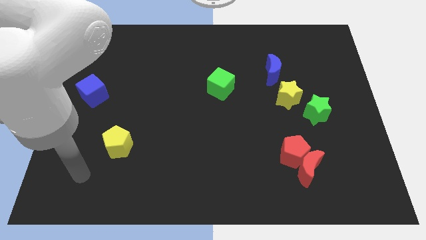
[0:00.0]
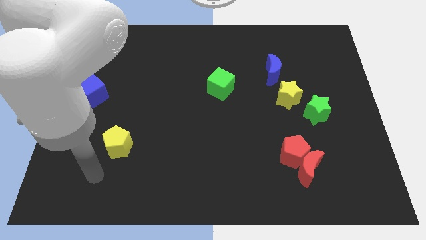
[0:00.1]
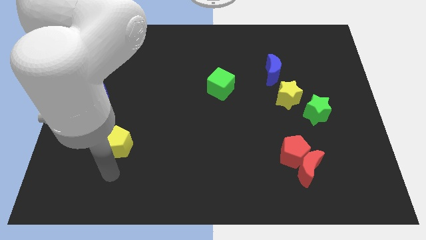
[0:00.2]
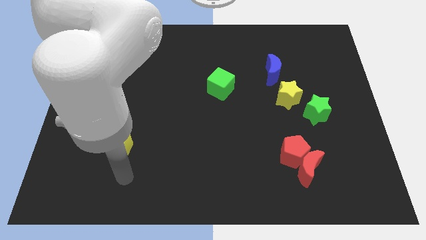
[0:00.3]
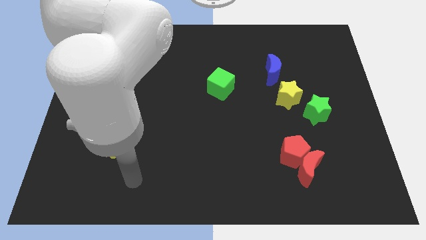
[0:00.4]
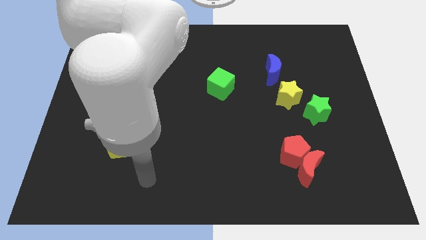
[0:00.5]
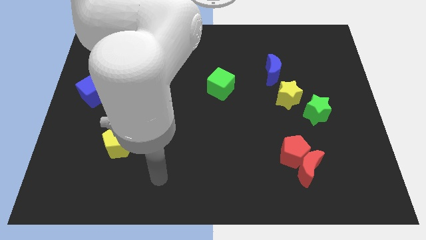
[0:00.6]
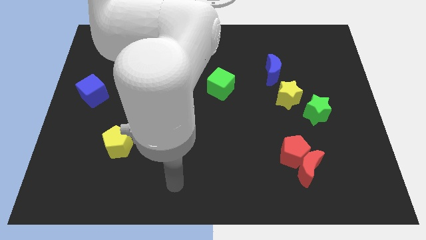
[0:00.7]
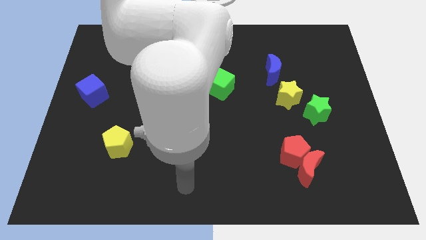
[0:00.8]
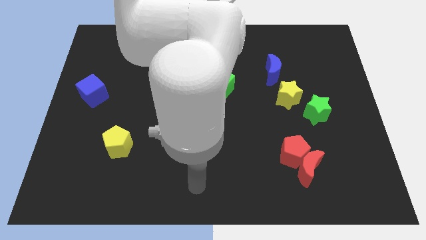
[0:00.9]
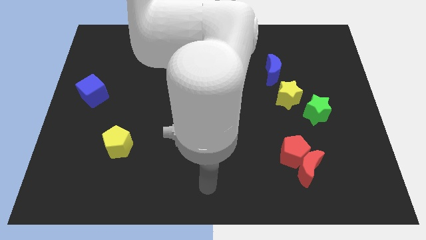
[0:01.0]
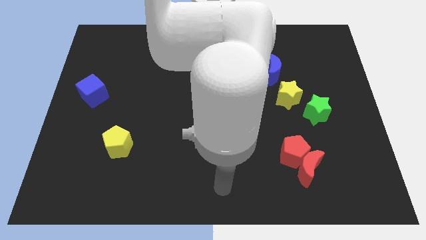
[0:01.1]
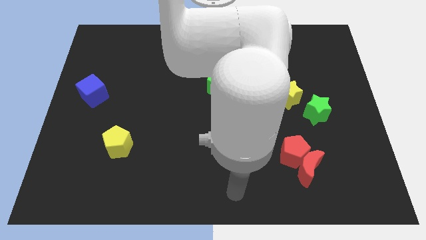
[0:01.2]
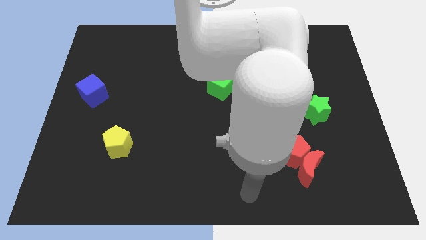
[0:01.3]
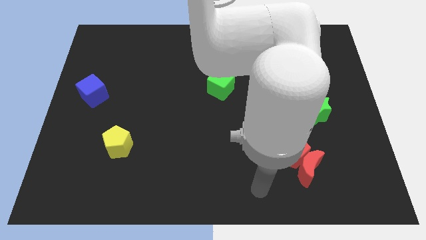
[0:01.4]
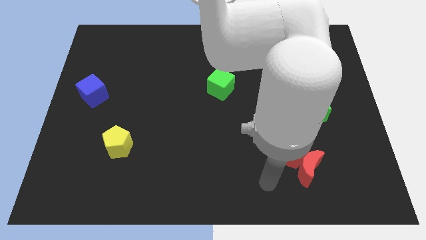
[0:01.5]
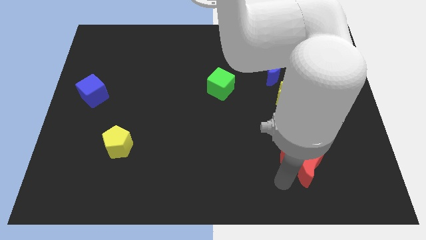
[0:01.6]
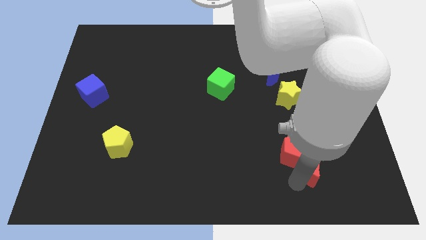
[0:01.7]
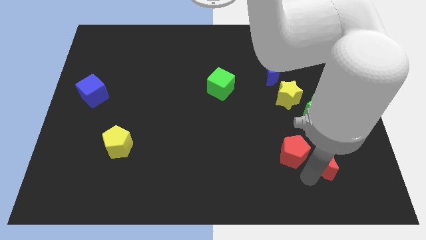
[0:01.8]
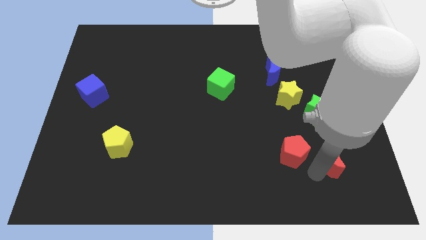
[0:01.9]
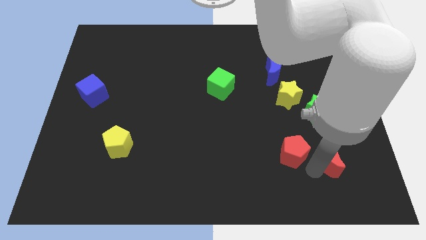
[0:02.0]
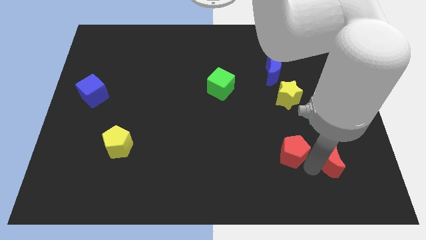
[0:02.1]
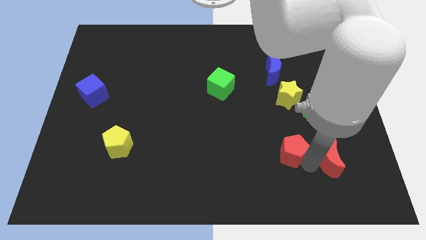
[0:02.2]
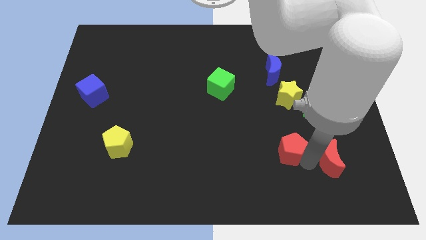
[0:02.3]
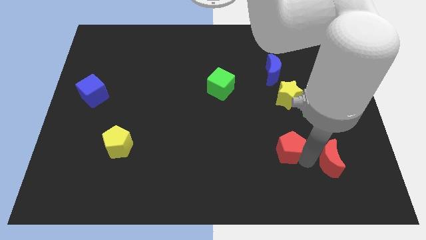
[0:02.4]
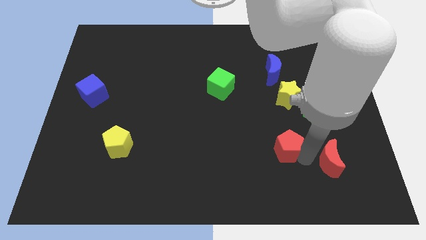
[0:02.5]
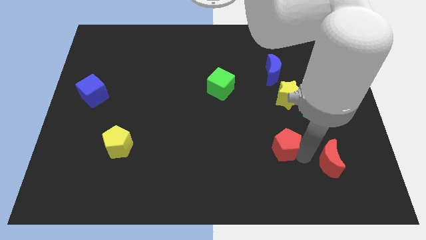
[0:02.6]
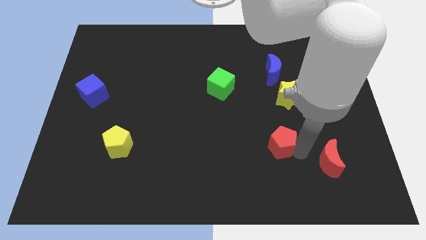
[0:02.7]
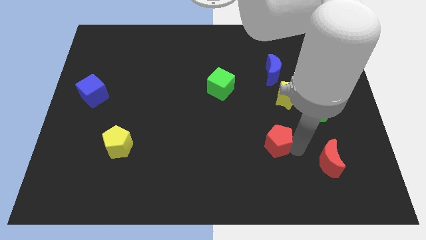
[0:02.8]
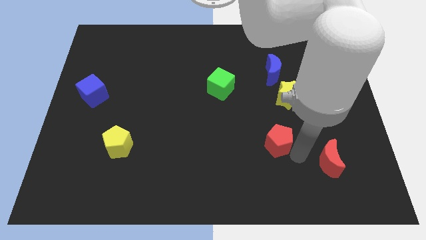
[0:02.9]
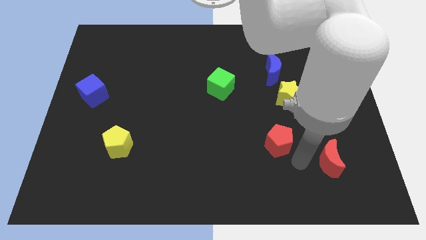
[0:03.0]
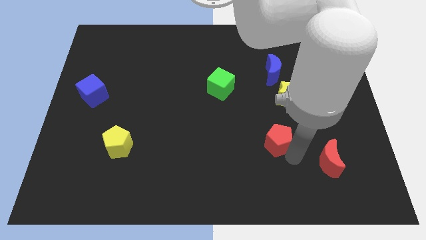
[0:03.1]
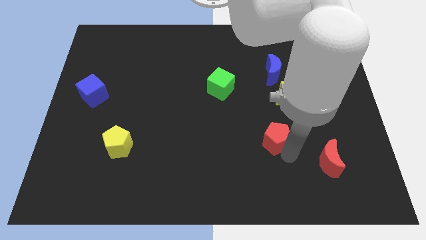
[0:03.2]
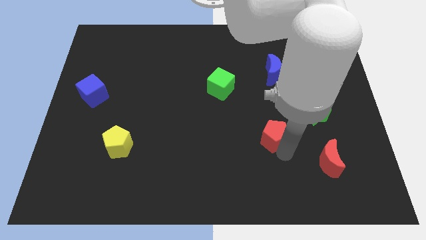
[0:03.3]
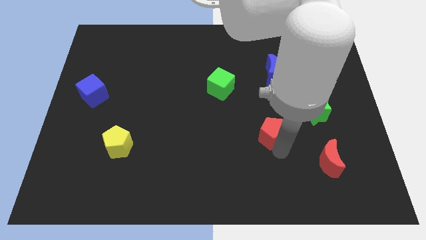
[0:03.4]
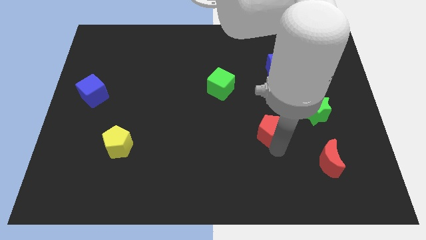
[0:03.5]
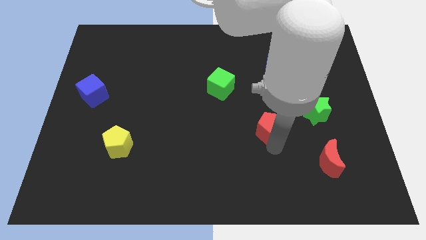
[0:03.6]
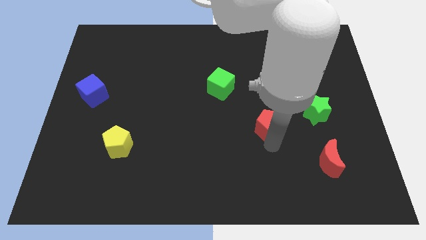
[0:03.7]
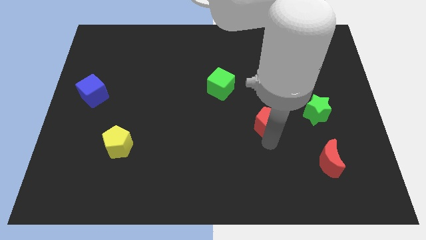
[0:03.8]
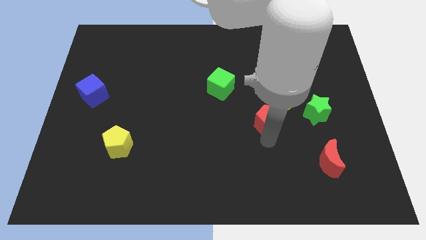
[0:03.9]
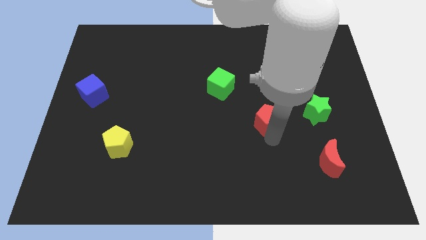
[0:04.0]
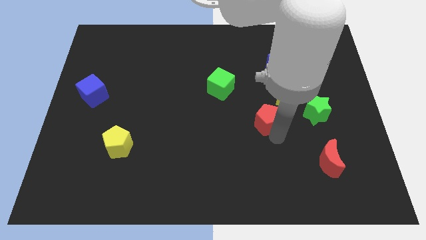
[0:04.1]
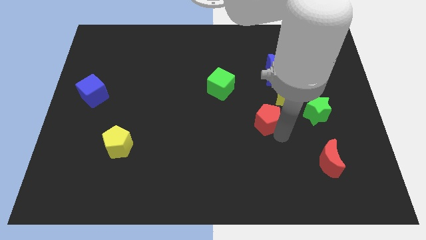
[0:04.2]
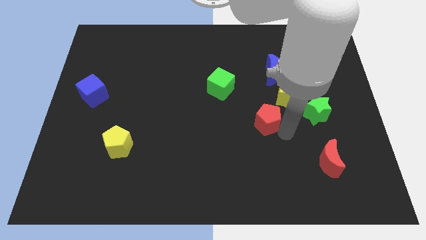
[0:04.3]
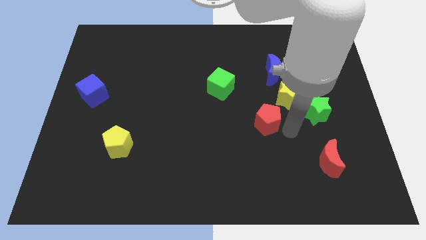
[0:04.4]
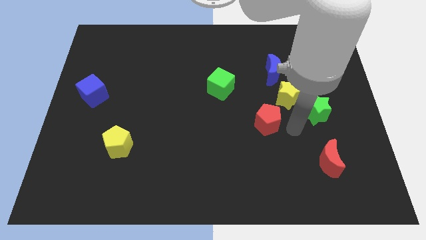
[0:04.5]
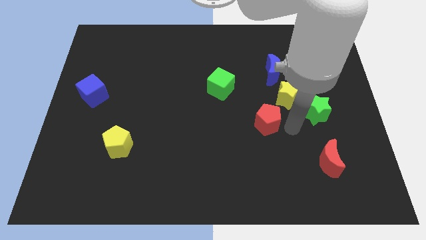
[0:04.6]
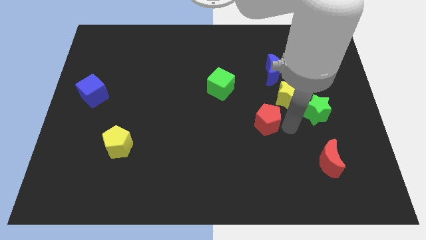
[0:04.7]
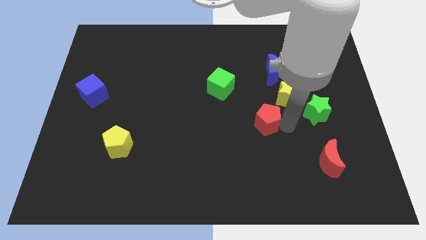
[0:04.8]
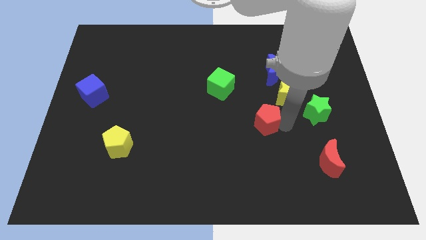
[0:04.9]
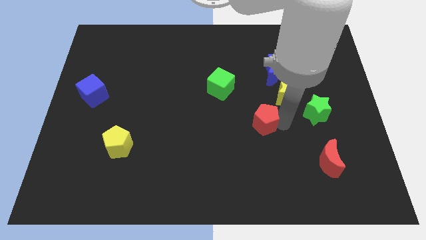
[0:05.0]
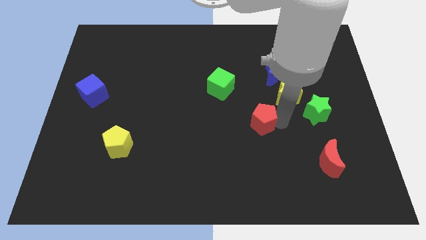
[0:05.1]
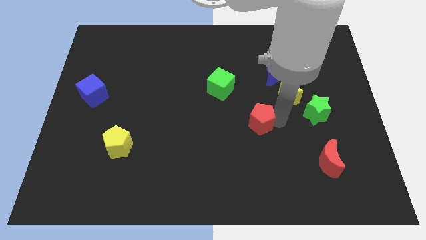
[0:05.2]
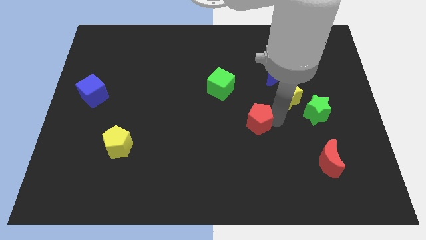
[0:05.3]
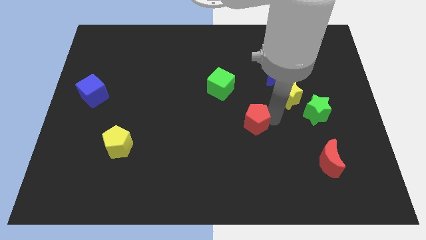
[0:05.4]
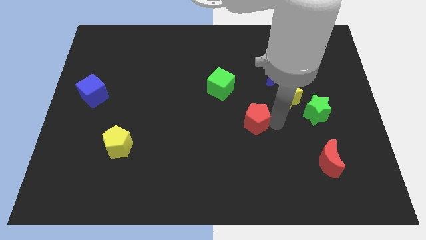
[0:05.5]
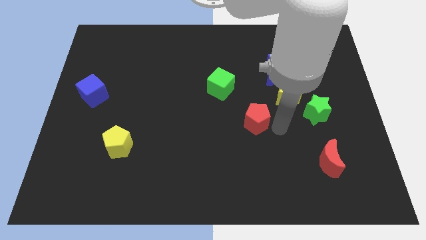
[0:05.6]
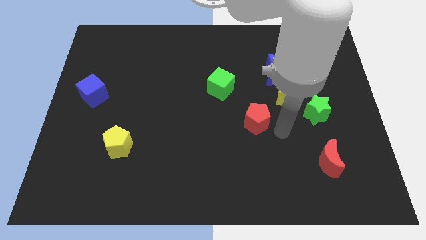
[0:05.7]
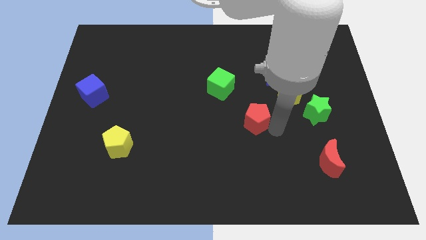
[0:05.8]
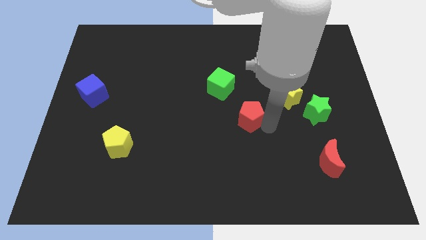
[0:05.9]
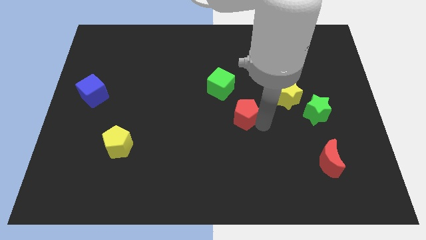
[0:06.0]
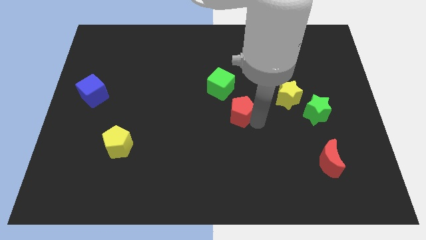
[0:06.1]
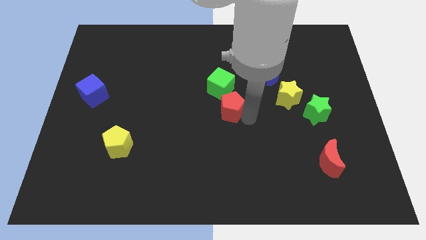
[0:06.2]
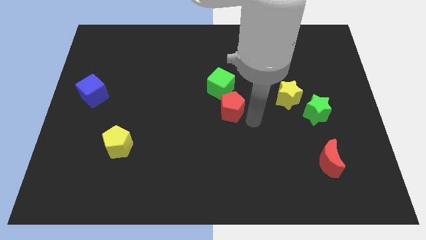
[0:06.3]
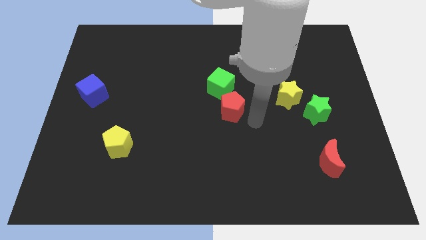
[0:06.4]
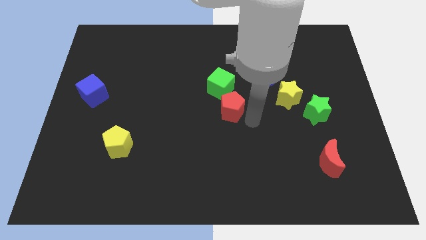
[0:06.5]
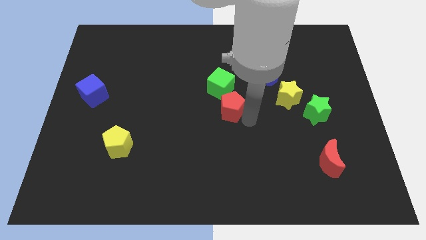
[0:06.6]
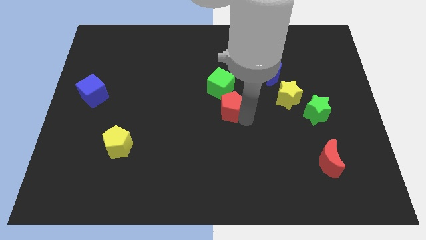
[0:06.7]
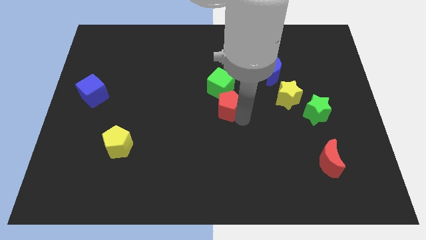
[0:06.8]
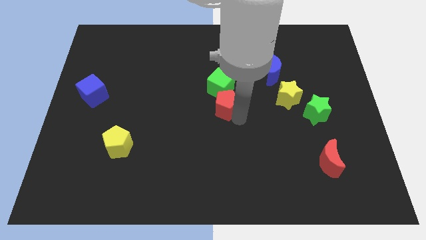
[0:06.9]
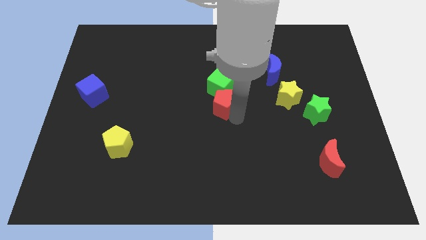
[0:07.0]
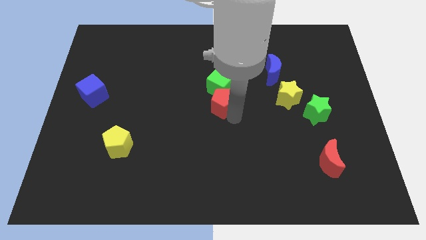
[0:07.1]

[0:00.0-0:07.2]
slide the red pentagon up and then left

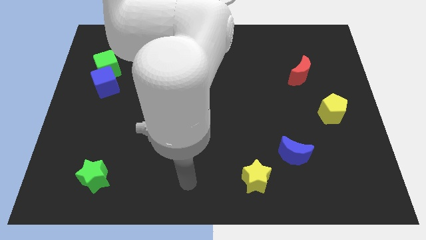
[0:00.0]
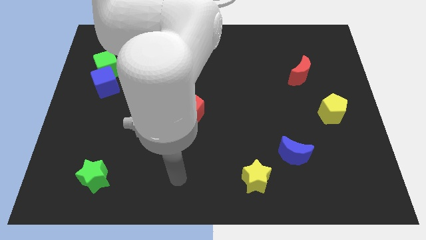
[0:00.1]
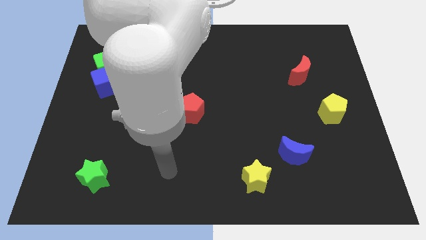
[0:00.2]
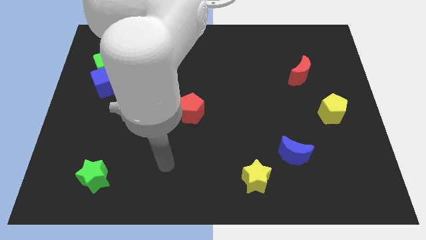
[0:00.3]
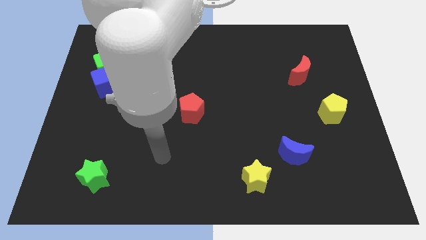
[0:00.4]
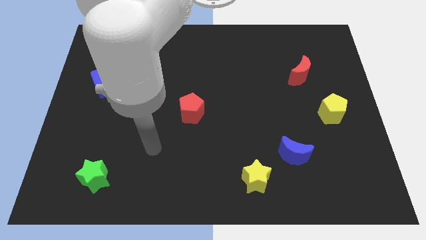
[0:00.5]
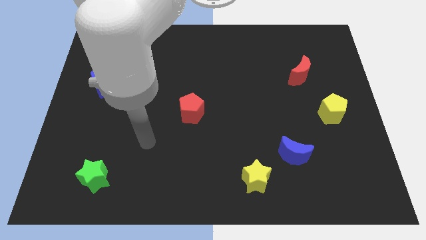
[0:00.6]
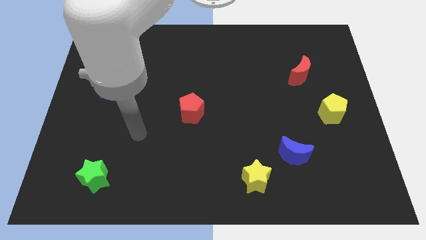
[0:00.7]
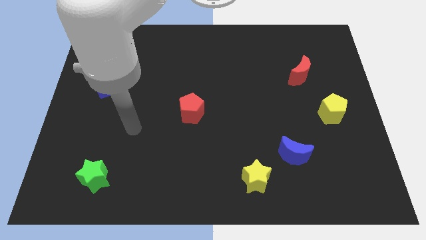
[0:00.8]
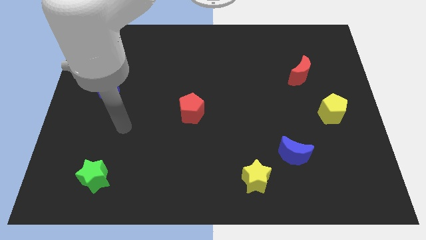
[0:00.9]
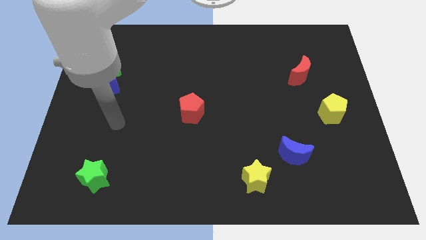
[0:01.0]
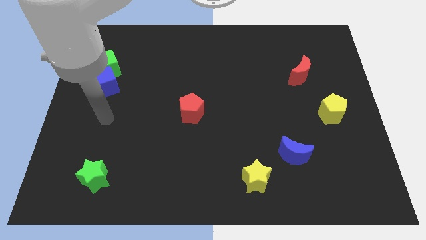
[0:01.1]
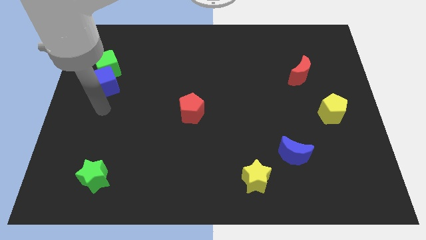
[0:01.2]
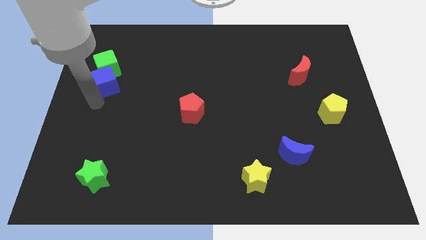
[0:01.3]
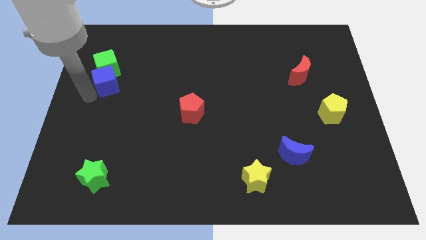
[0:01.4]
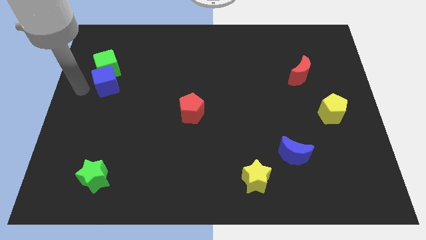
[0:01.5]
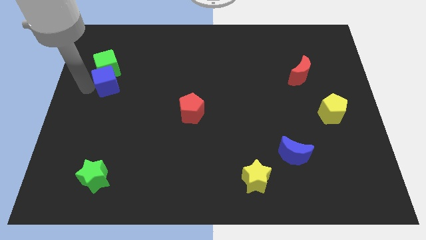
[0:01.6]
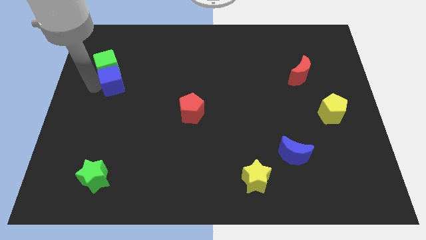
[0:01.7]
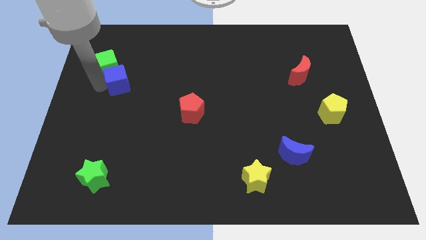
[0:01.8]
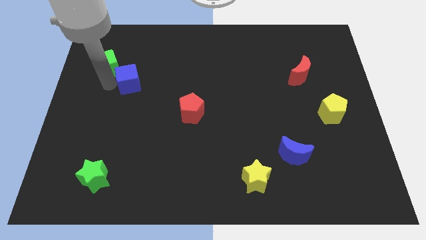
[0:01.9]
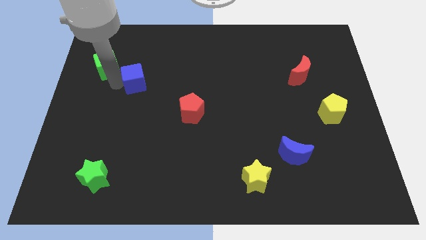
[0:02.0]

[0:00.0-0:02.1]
slightly move the blue cube right
